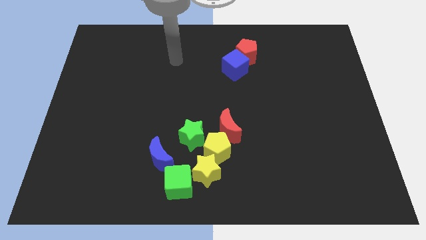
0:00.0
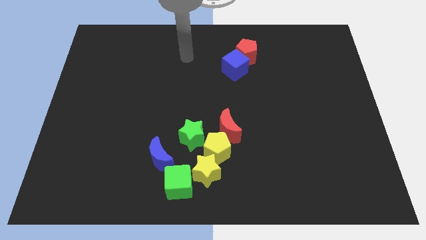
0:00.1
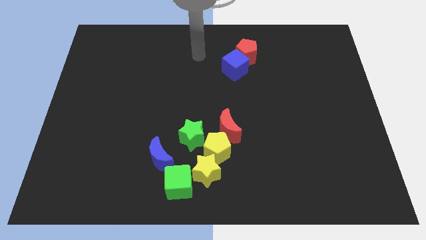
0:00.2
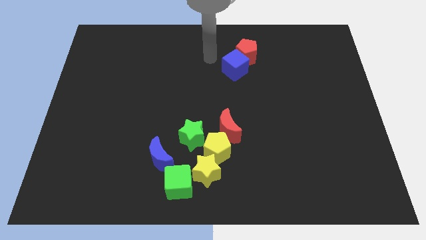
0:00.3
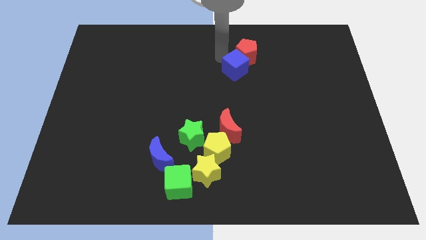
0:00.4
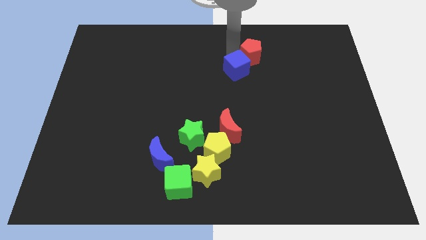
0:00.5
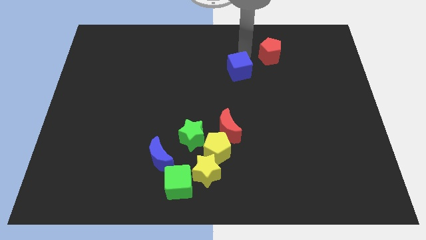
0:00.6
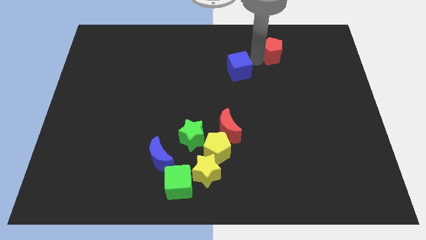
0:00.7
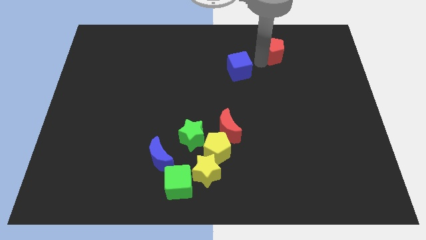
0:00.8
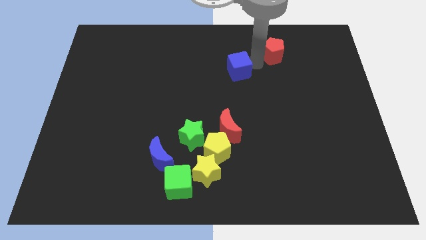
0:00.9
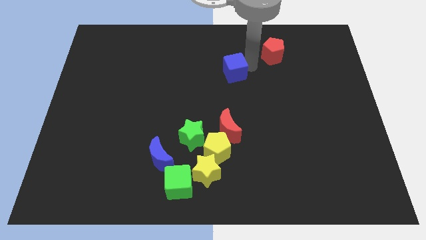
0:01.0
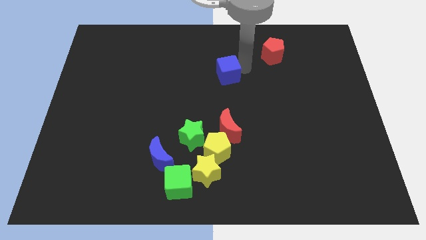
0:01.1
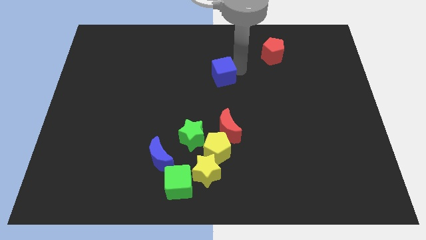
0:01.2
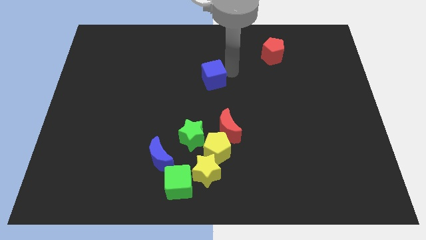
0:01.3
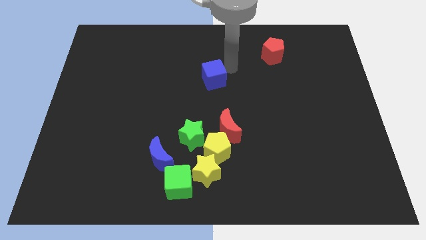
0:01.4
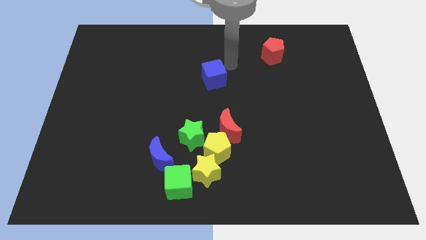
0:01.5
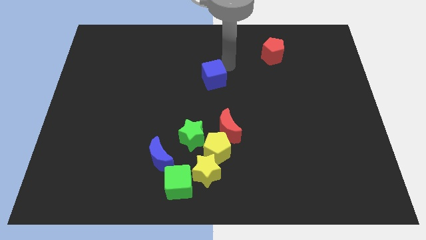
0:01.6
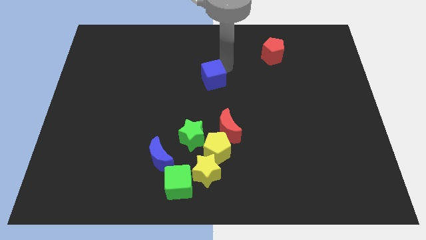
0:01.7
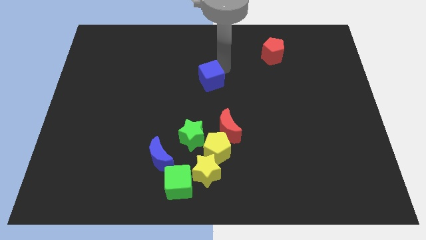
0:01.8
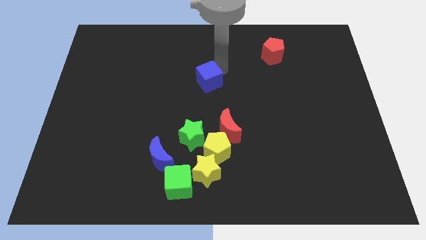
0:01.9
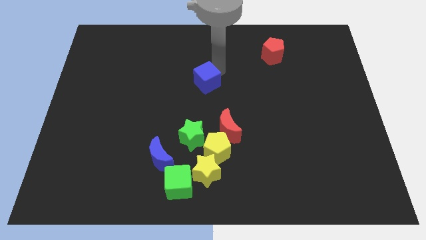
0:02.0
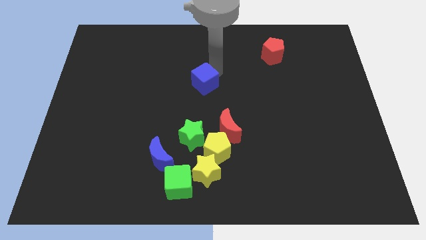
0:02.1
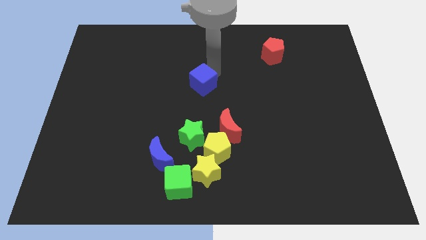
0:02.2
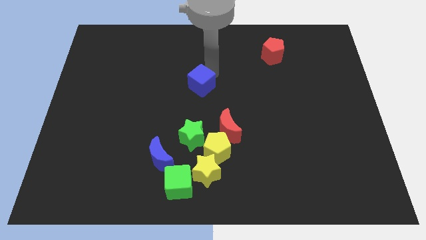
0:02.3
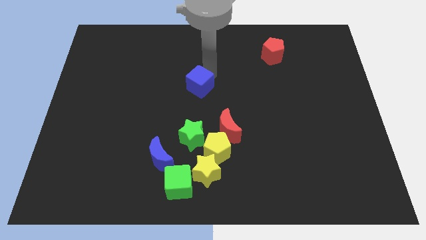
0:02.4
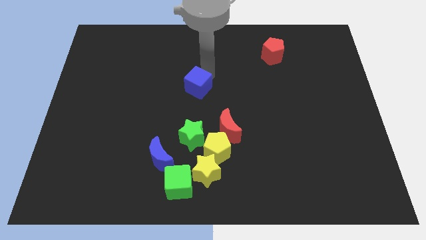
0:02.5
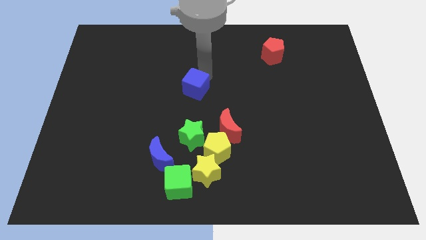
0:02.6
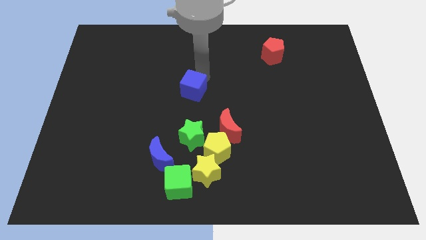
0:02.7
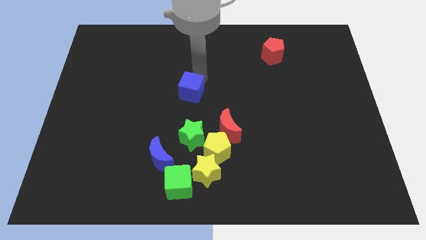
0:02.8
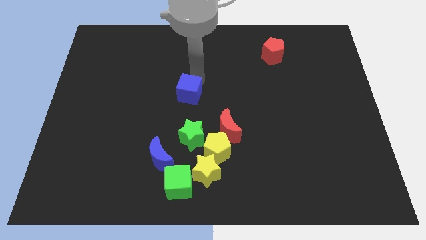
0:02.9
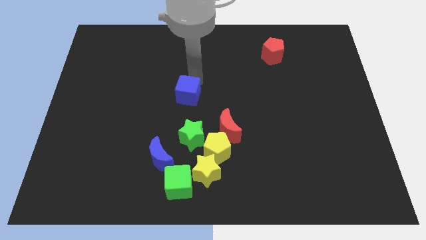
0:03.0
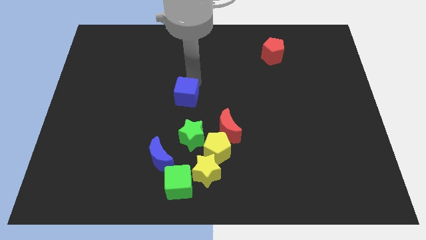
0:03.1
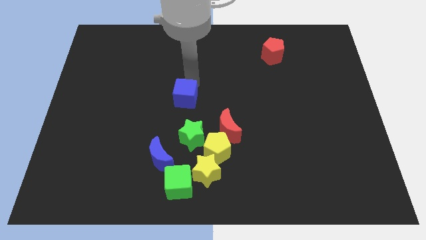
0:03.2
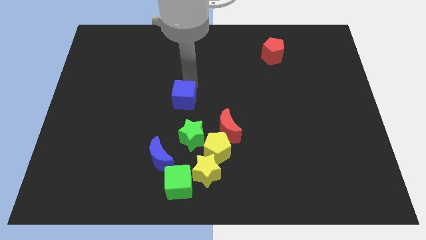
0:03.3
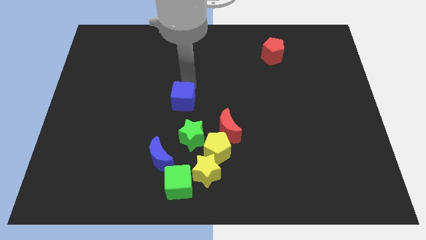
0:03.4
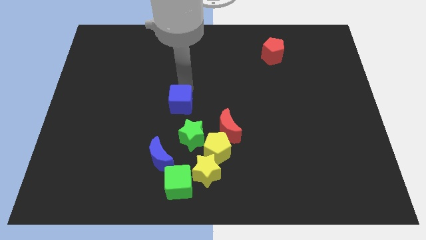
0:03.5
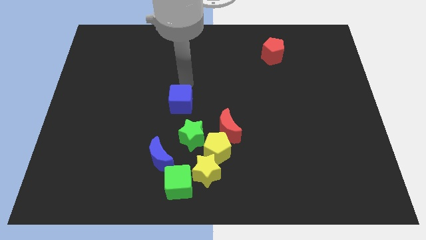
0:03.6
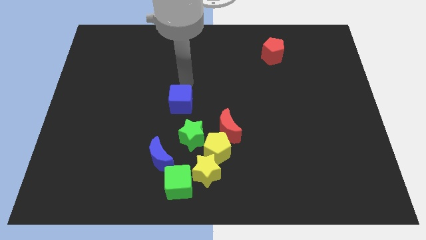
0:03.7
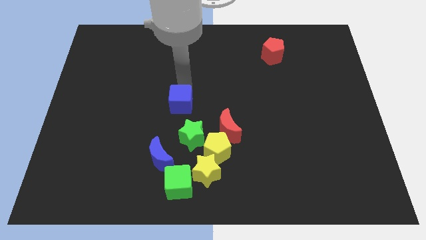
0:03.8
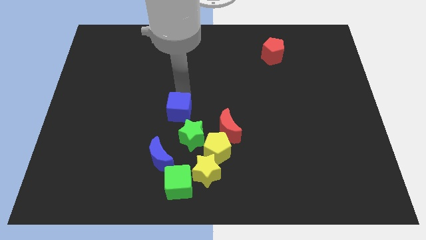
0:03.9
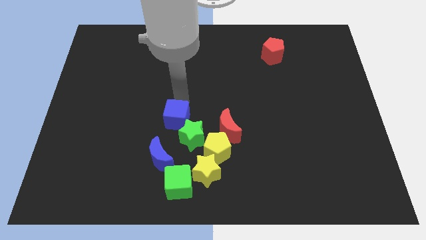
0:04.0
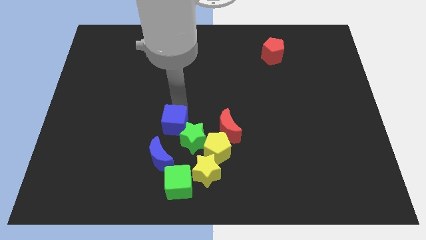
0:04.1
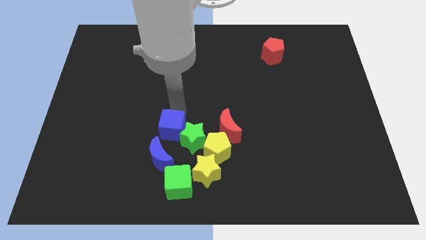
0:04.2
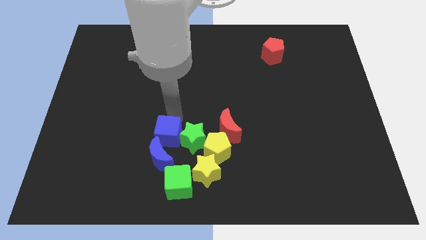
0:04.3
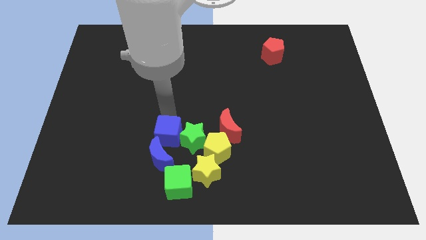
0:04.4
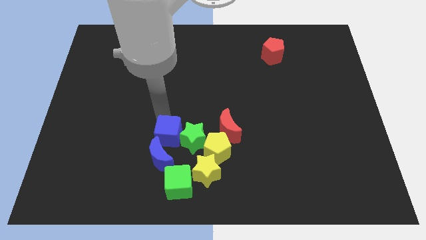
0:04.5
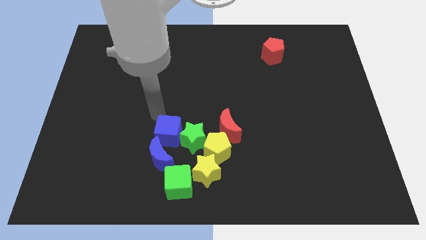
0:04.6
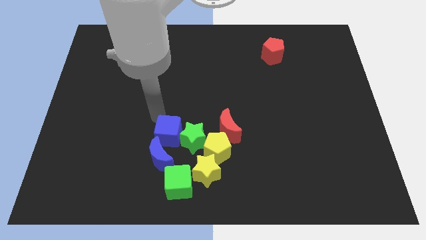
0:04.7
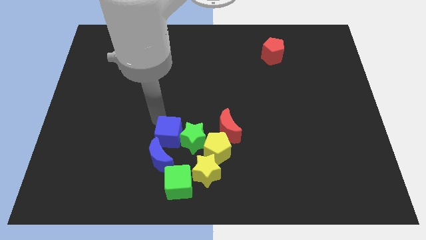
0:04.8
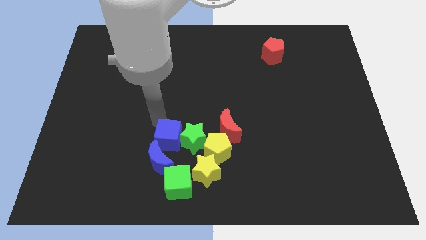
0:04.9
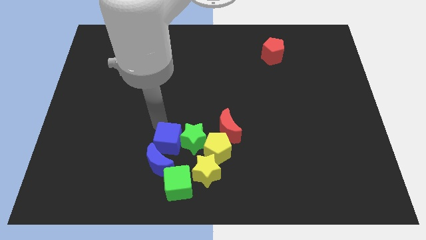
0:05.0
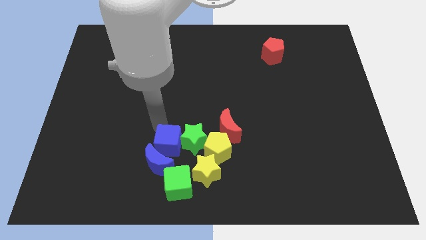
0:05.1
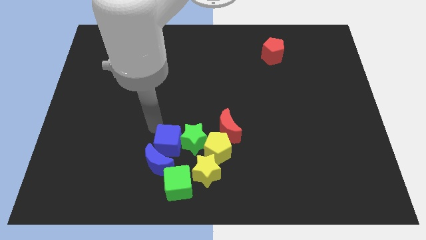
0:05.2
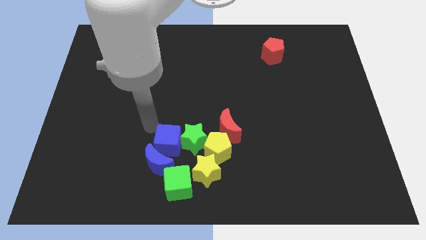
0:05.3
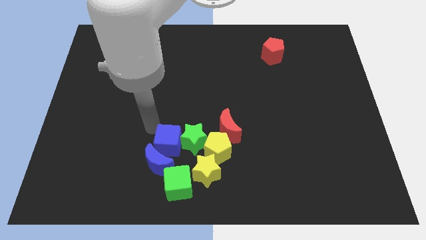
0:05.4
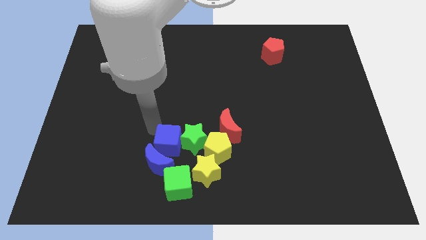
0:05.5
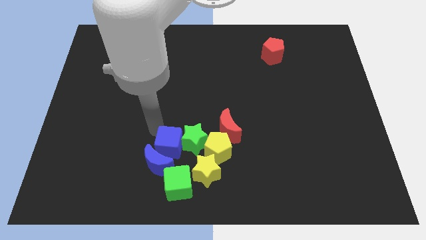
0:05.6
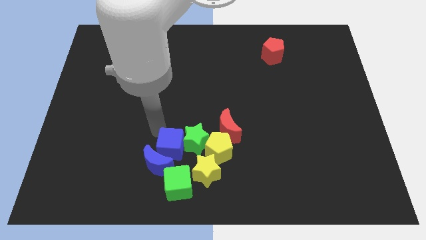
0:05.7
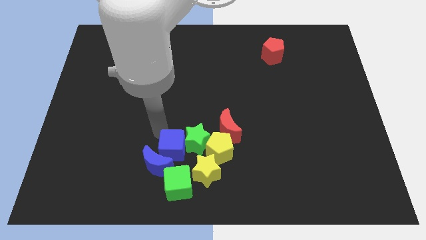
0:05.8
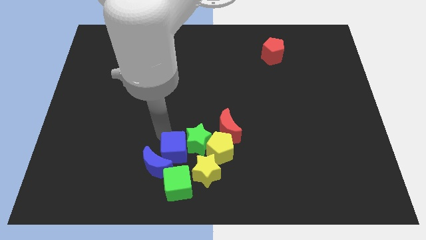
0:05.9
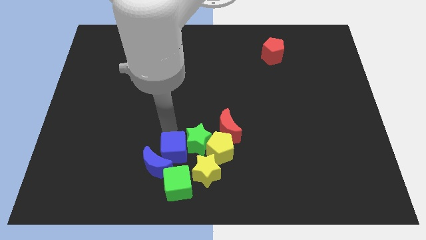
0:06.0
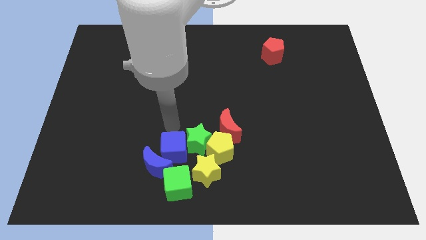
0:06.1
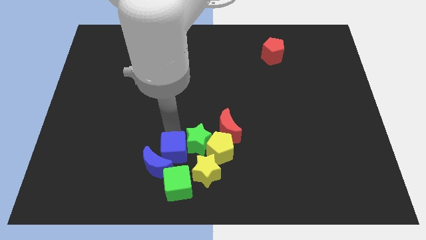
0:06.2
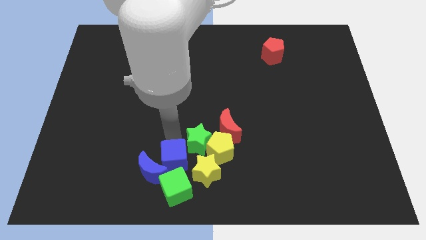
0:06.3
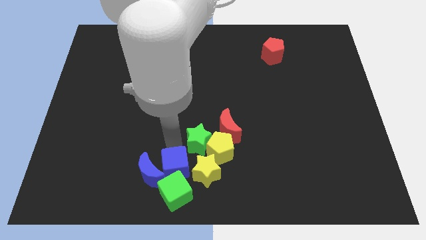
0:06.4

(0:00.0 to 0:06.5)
move the blue cube to the green cube

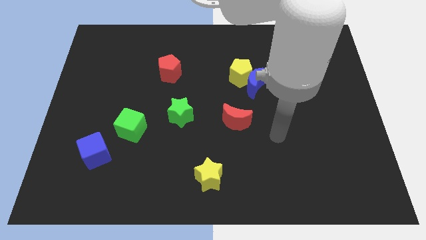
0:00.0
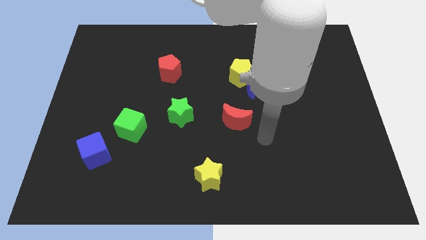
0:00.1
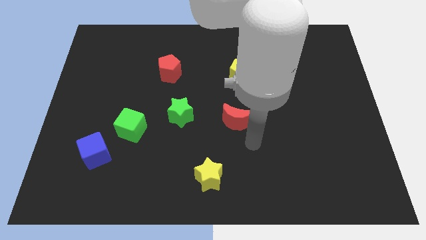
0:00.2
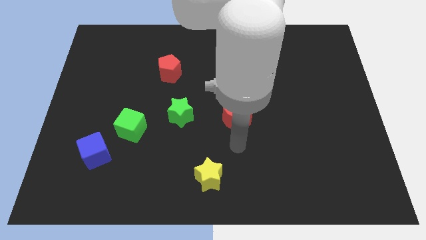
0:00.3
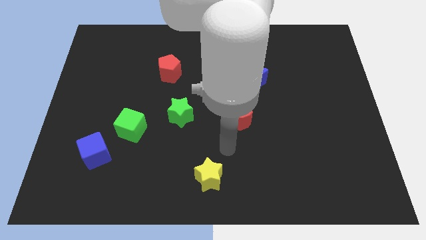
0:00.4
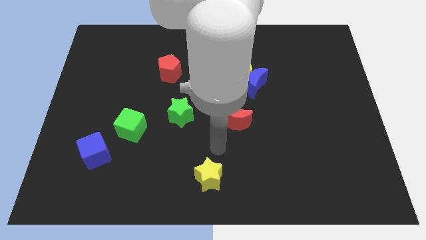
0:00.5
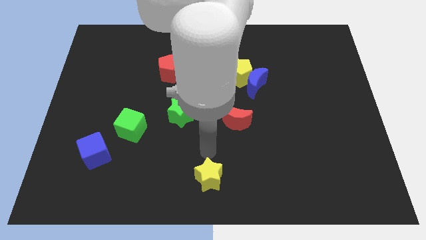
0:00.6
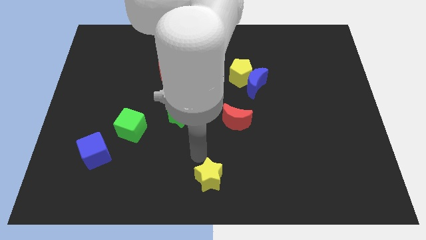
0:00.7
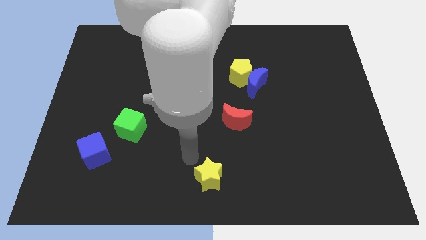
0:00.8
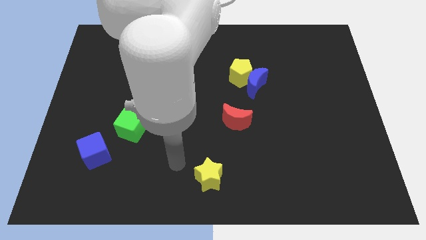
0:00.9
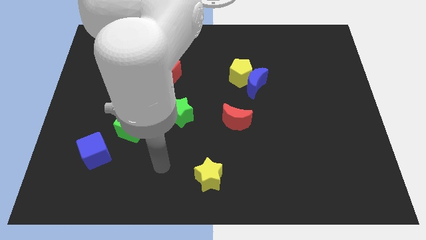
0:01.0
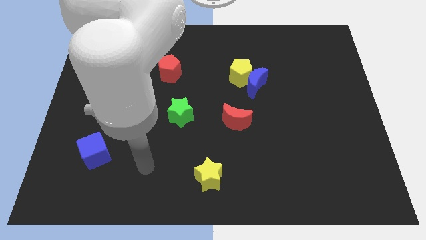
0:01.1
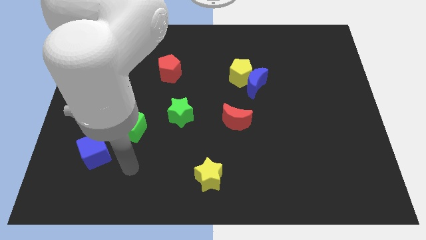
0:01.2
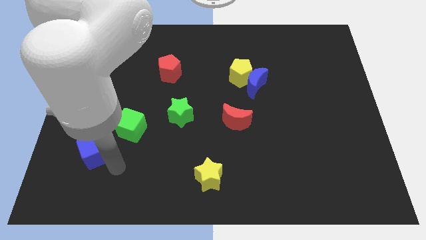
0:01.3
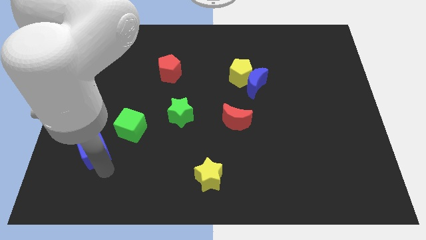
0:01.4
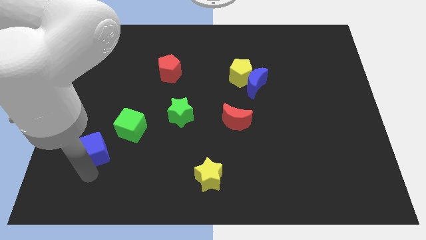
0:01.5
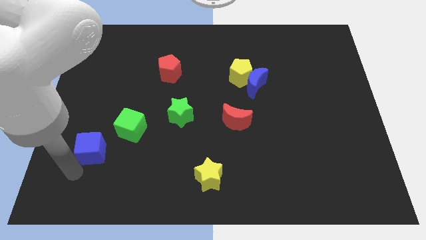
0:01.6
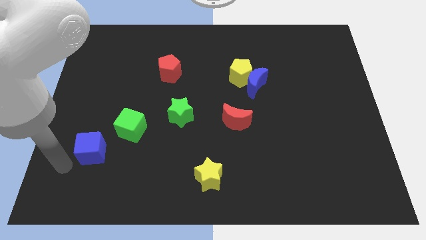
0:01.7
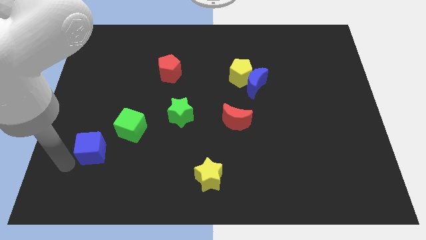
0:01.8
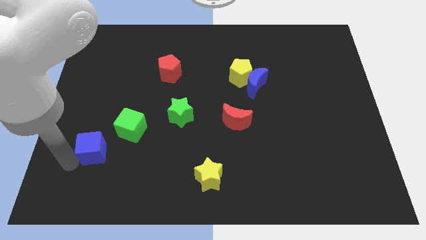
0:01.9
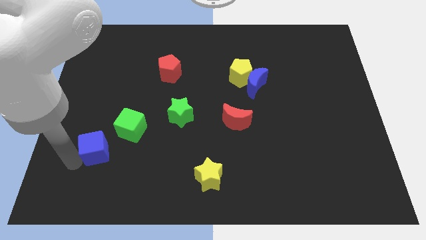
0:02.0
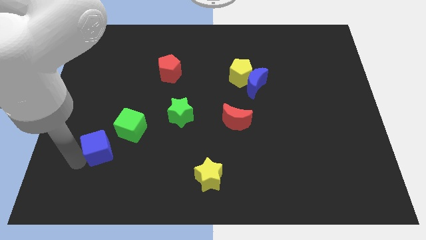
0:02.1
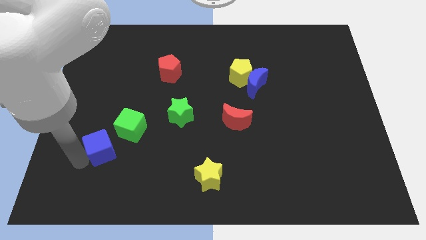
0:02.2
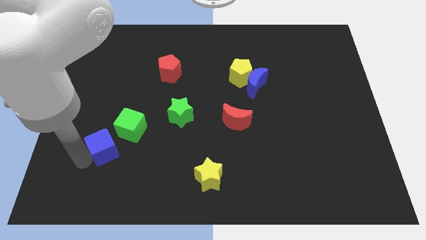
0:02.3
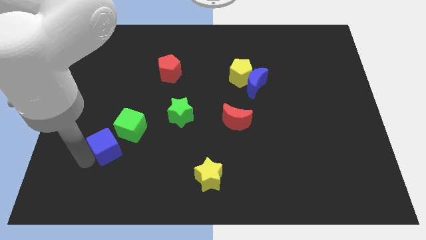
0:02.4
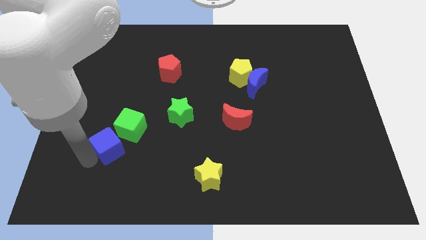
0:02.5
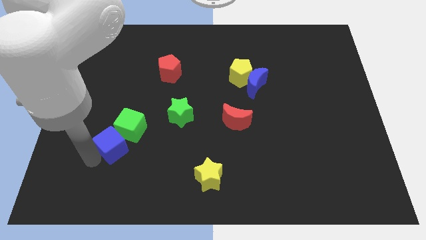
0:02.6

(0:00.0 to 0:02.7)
slide the blue cube towards the green cube
